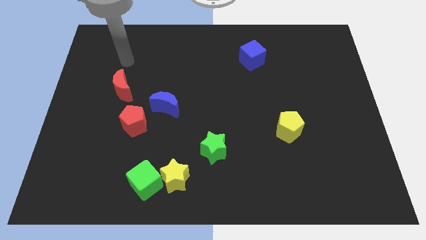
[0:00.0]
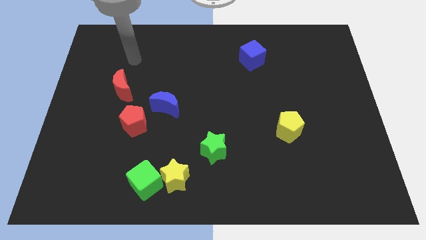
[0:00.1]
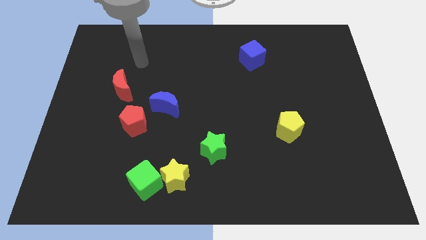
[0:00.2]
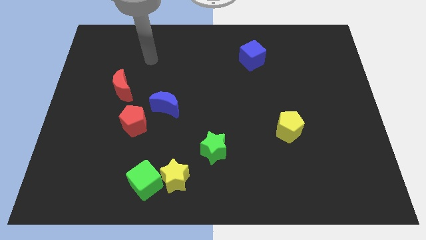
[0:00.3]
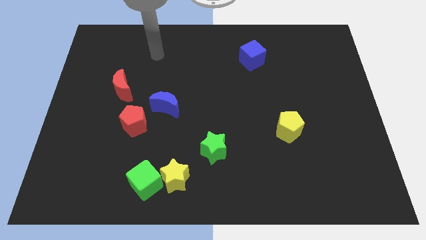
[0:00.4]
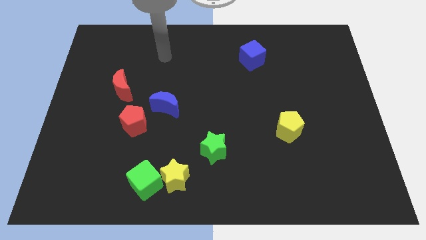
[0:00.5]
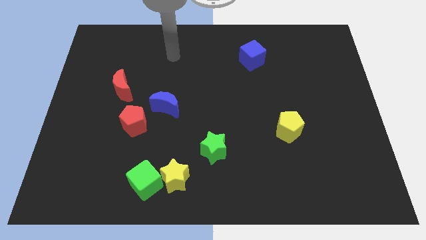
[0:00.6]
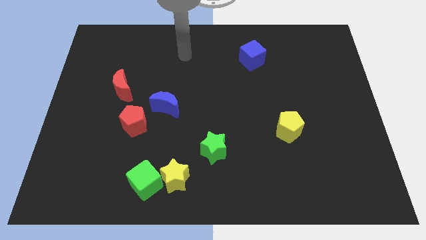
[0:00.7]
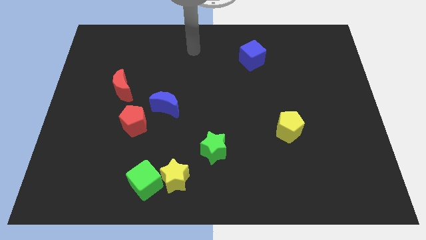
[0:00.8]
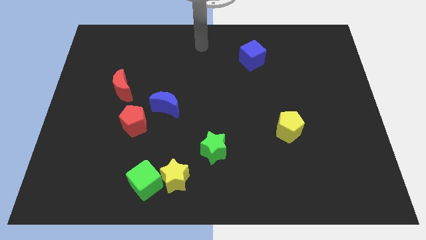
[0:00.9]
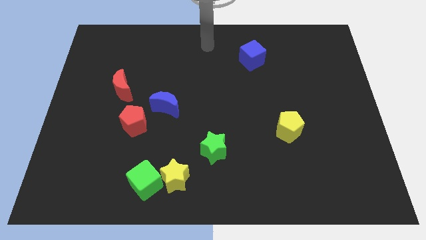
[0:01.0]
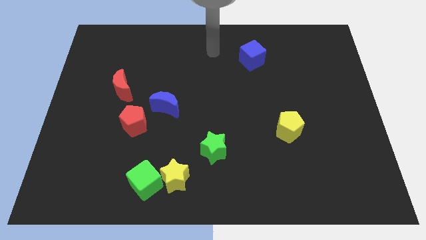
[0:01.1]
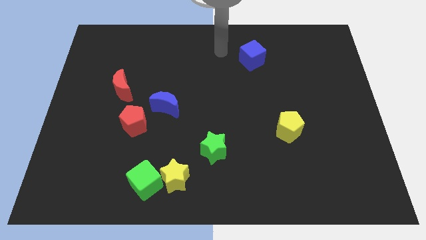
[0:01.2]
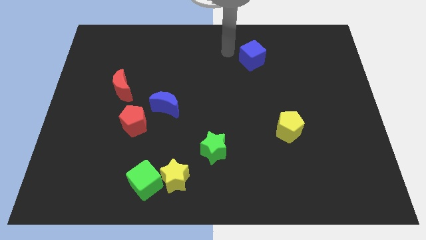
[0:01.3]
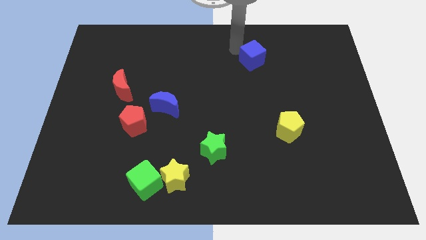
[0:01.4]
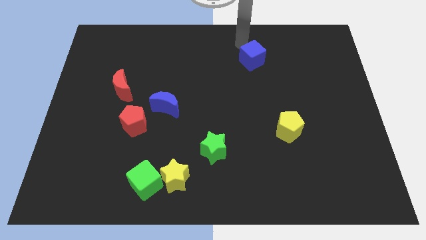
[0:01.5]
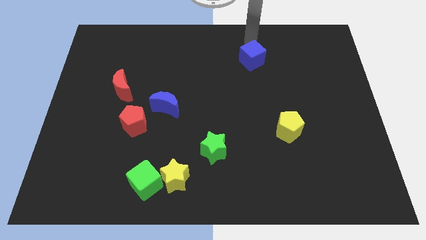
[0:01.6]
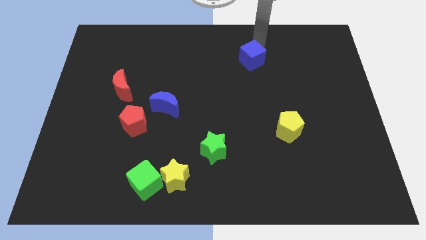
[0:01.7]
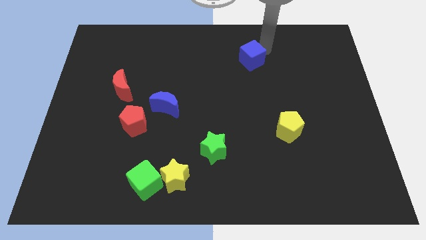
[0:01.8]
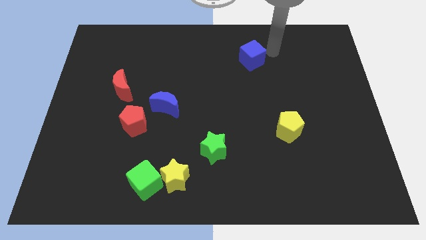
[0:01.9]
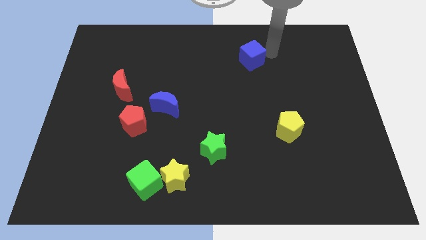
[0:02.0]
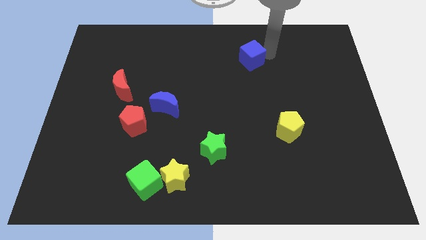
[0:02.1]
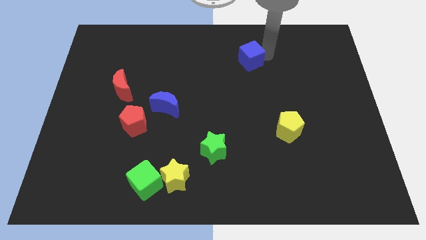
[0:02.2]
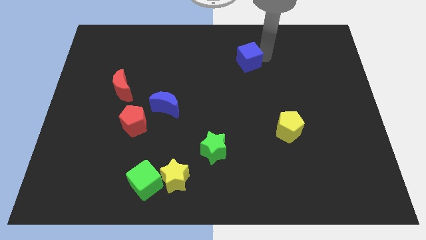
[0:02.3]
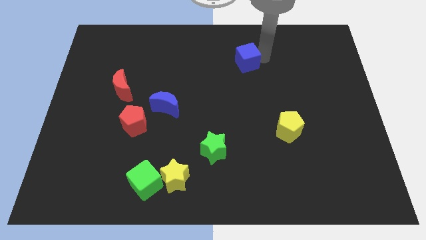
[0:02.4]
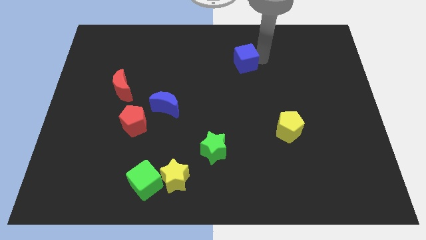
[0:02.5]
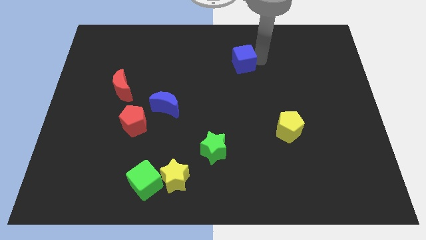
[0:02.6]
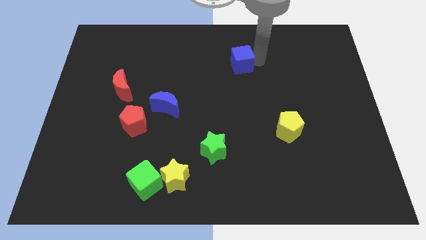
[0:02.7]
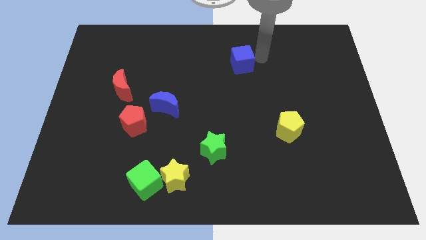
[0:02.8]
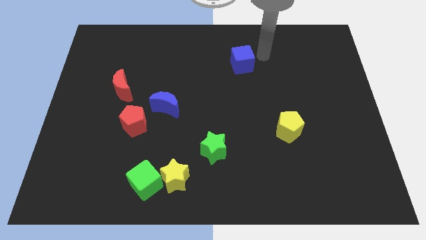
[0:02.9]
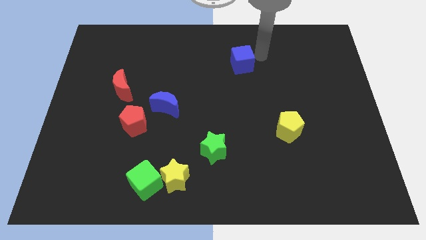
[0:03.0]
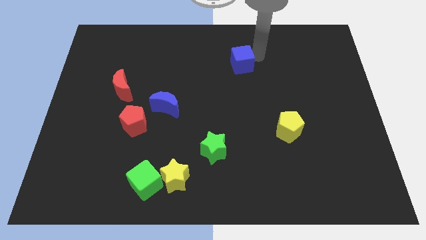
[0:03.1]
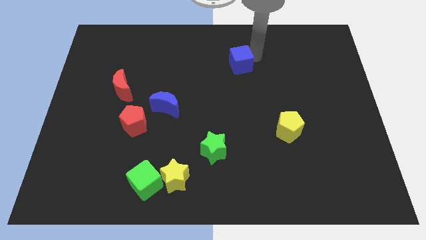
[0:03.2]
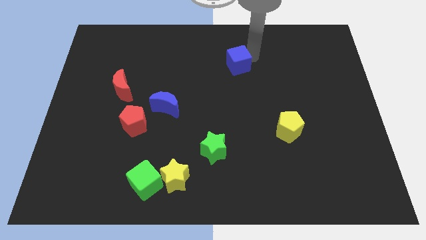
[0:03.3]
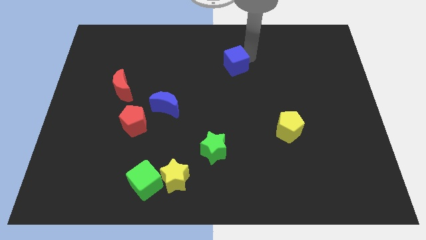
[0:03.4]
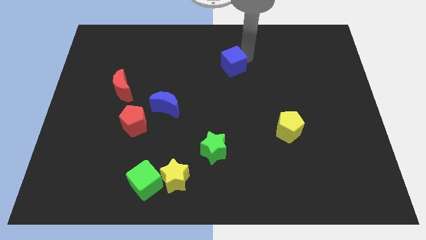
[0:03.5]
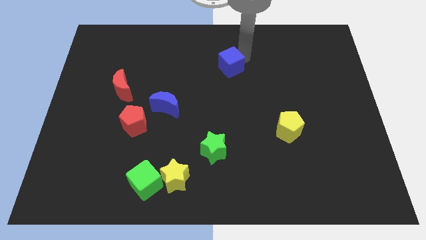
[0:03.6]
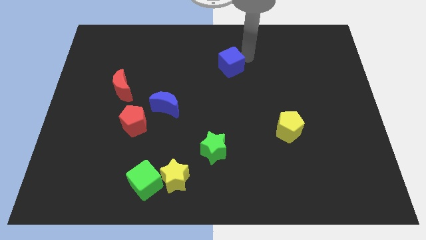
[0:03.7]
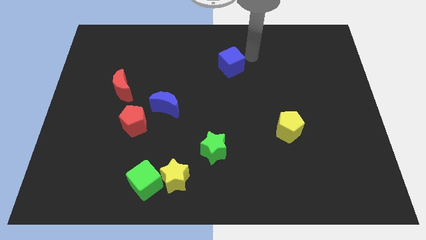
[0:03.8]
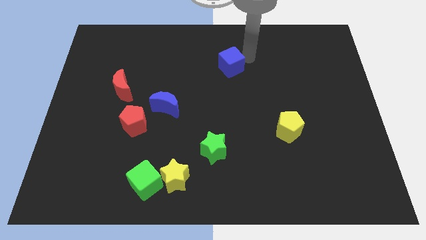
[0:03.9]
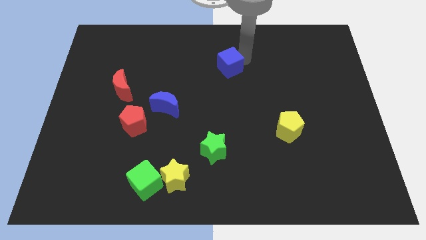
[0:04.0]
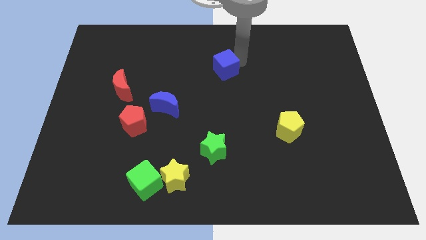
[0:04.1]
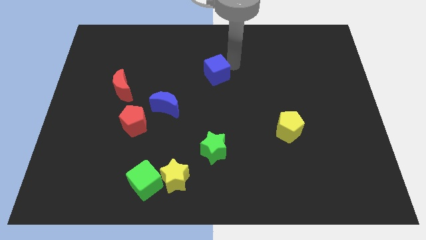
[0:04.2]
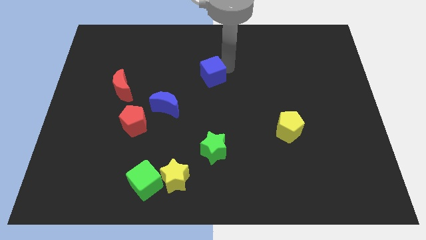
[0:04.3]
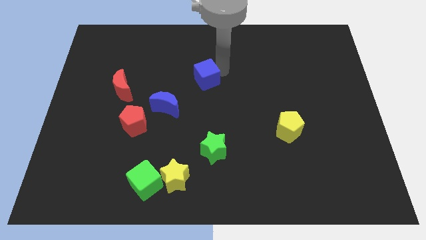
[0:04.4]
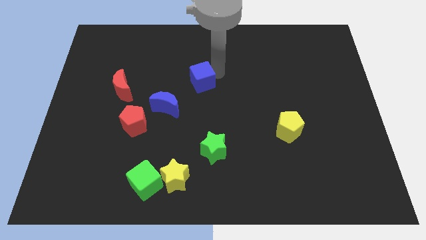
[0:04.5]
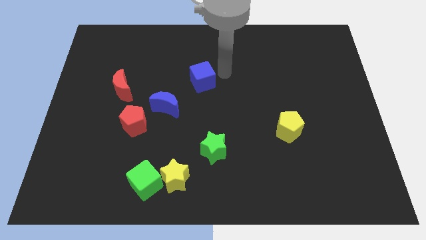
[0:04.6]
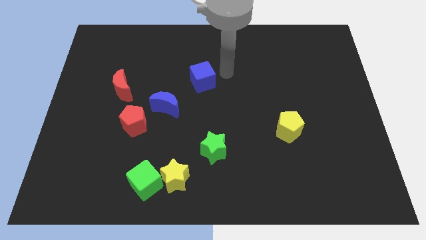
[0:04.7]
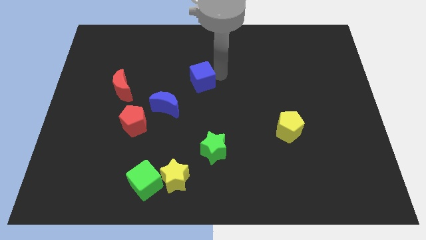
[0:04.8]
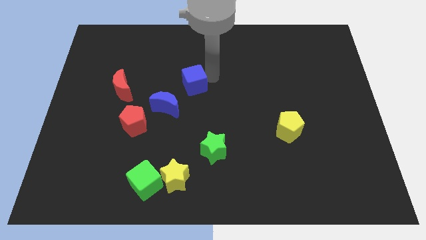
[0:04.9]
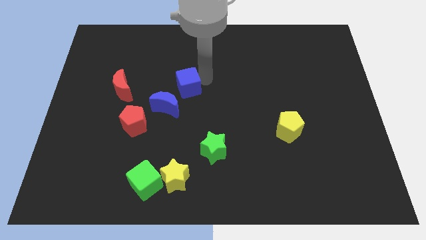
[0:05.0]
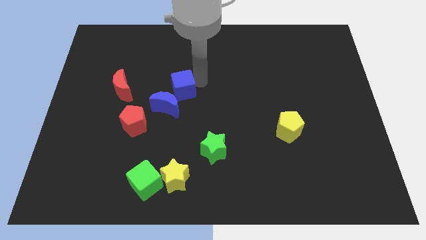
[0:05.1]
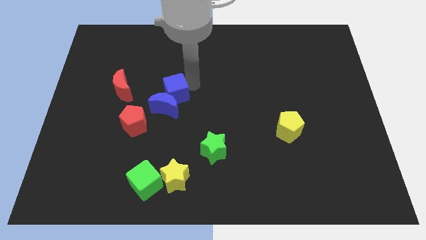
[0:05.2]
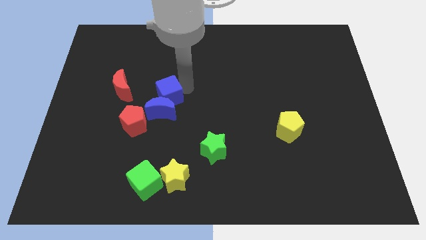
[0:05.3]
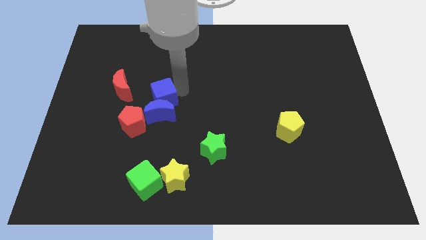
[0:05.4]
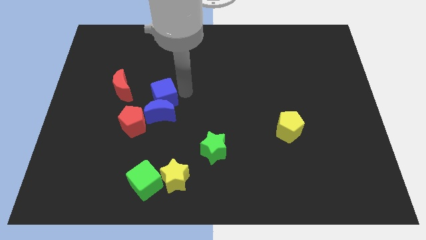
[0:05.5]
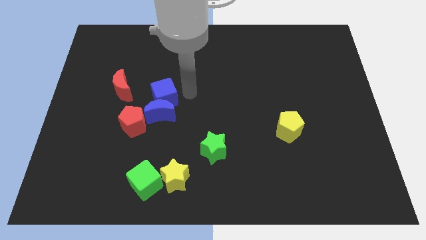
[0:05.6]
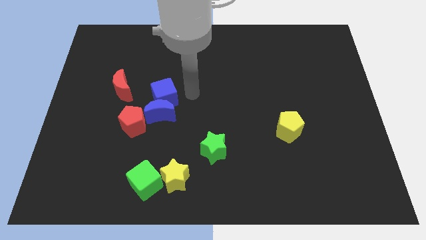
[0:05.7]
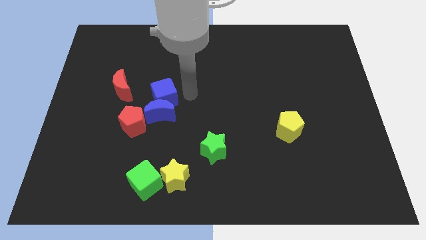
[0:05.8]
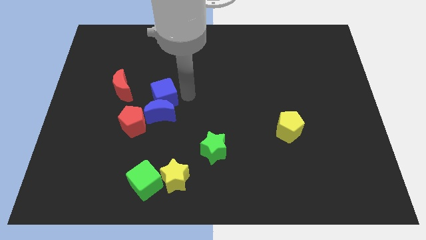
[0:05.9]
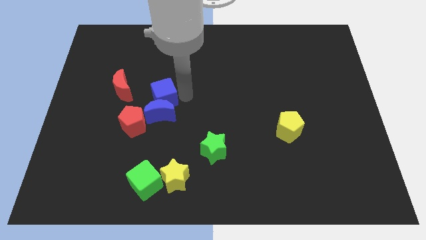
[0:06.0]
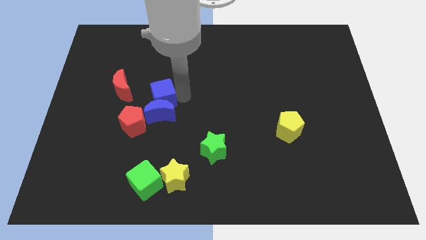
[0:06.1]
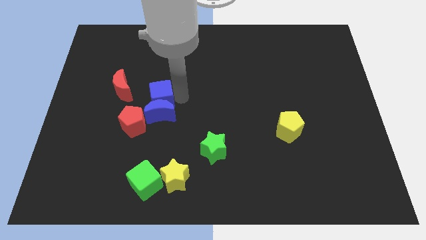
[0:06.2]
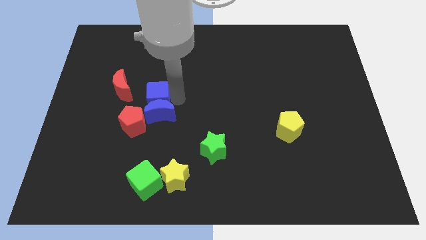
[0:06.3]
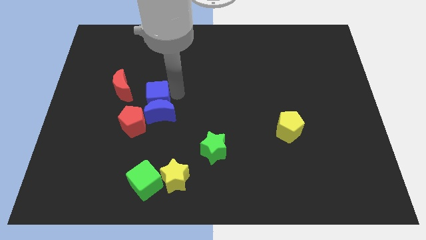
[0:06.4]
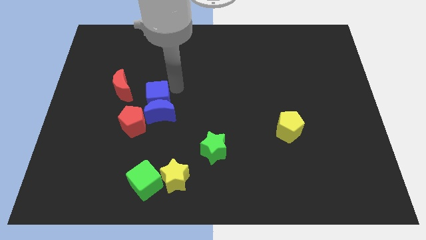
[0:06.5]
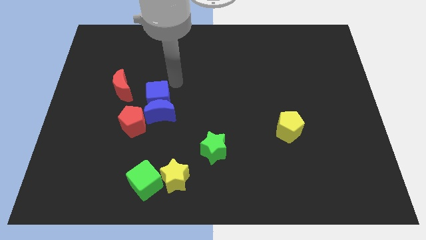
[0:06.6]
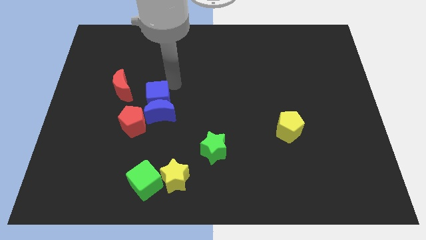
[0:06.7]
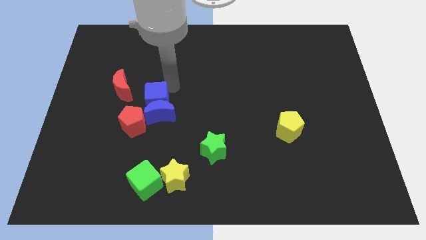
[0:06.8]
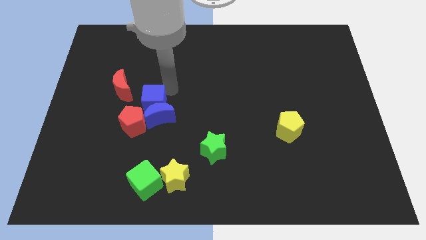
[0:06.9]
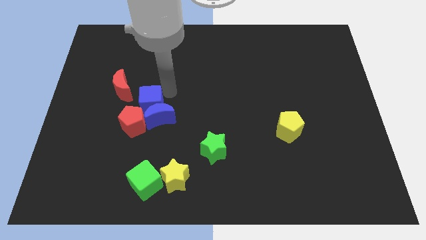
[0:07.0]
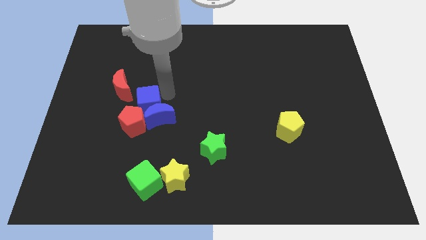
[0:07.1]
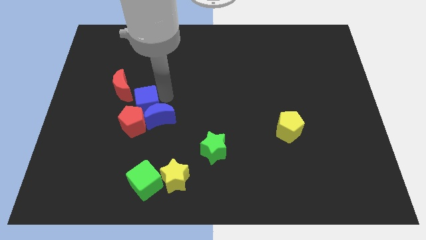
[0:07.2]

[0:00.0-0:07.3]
push the blue cube close to the red pentagon
